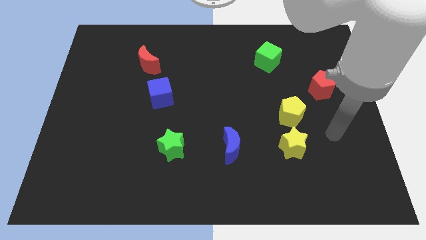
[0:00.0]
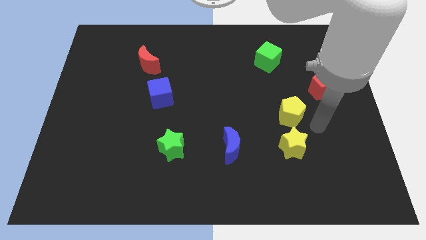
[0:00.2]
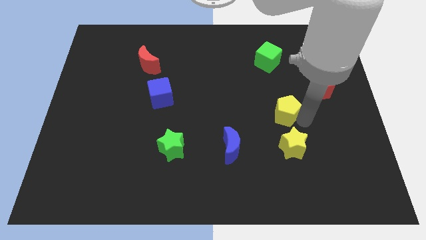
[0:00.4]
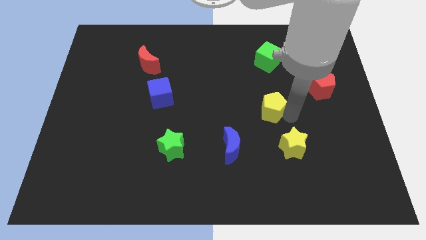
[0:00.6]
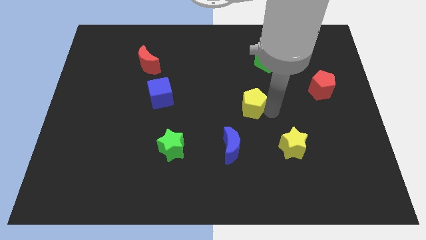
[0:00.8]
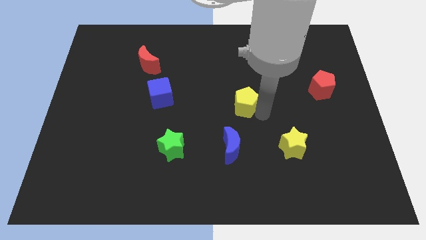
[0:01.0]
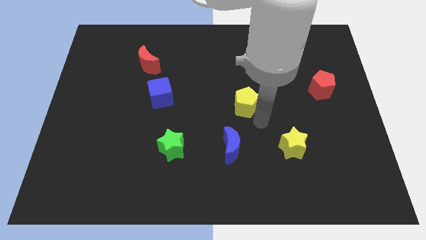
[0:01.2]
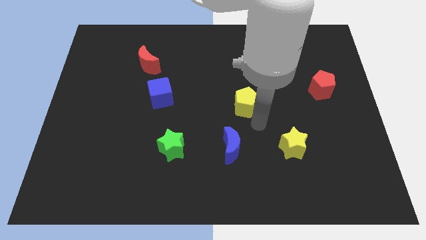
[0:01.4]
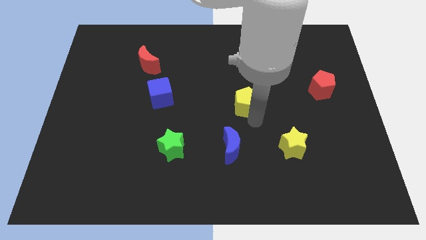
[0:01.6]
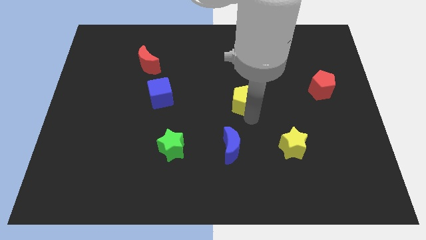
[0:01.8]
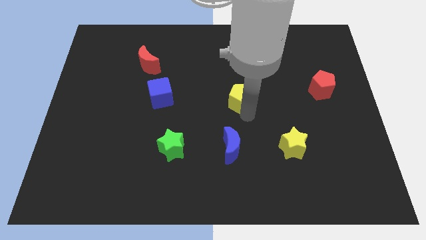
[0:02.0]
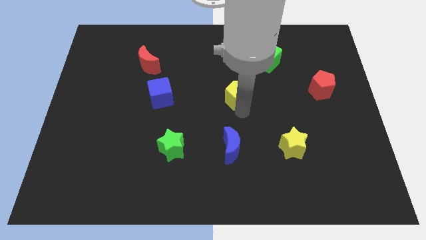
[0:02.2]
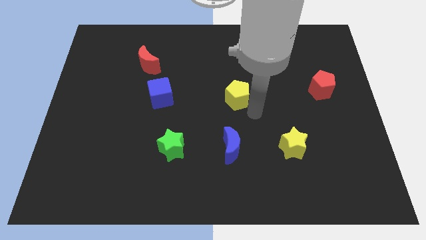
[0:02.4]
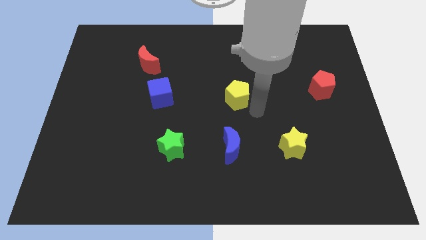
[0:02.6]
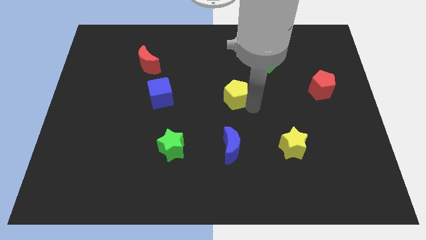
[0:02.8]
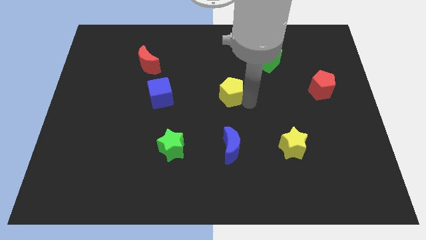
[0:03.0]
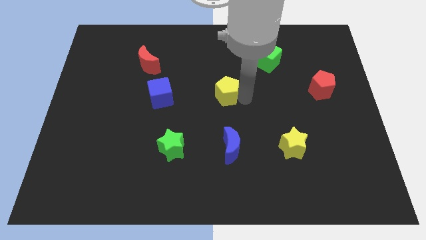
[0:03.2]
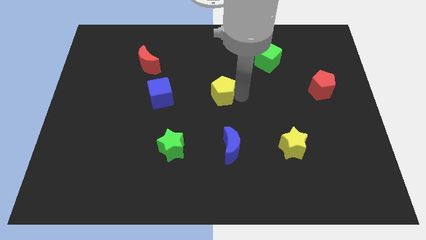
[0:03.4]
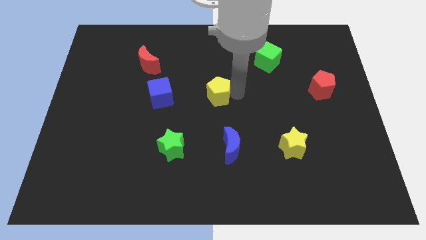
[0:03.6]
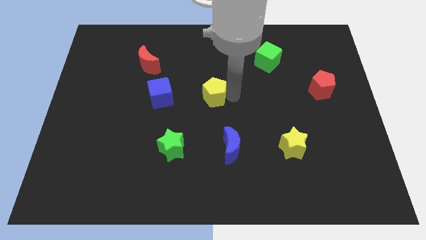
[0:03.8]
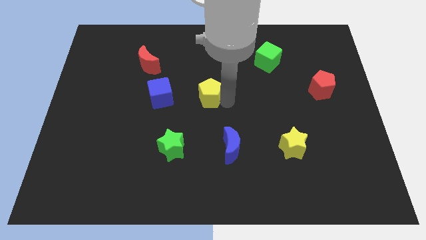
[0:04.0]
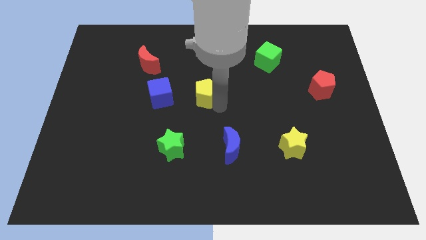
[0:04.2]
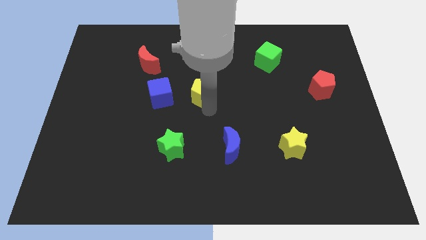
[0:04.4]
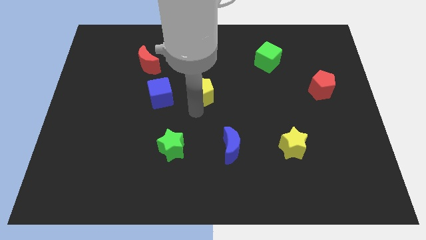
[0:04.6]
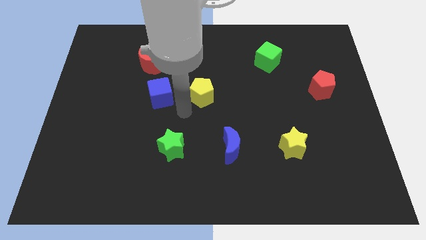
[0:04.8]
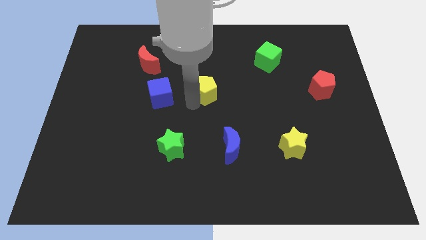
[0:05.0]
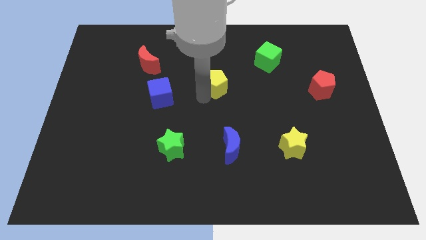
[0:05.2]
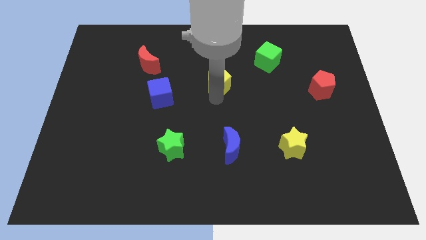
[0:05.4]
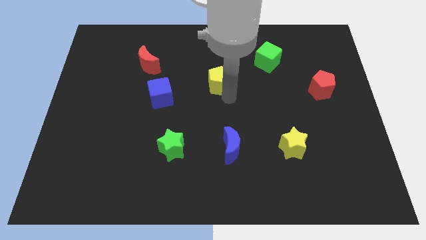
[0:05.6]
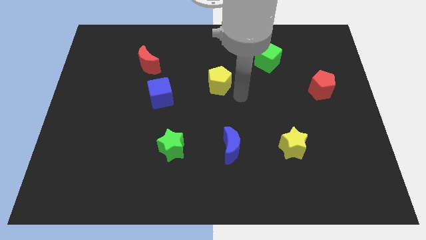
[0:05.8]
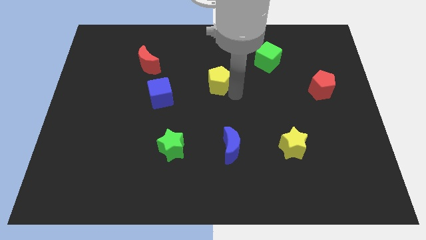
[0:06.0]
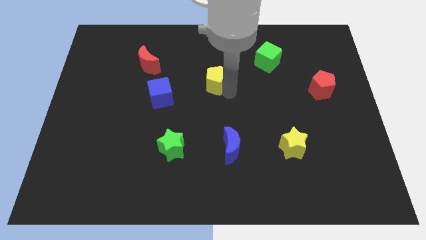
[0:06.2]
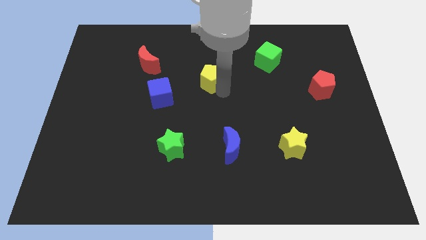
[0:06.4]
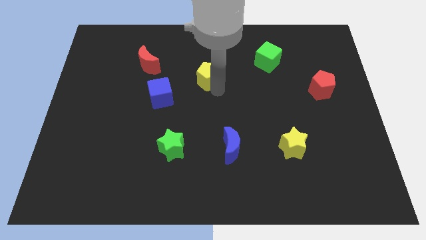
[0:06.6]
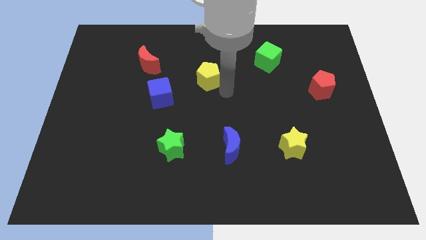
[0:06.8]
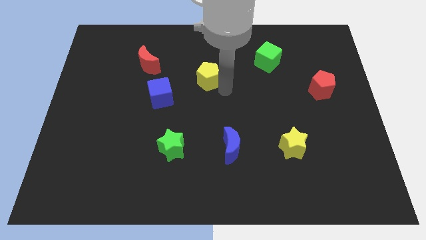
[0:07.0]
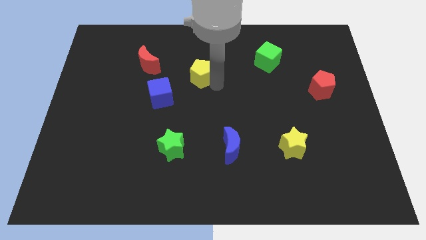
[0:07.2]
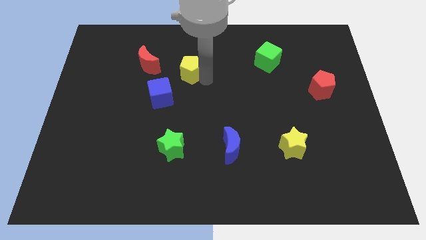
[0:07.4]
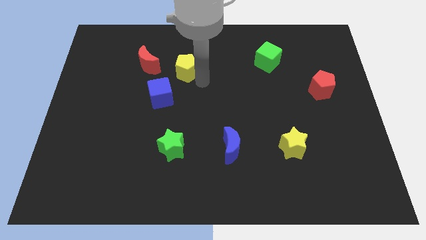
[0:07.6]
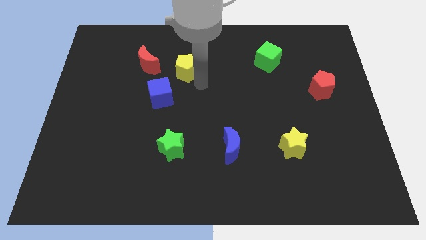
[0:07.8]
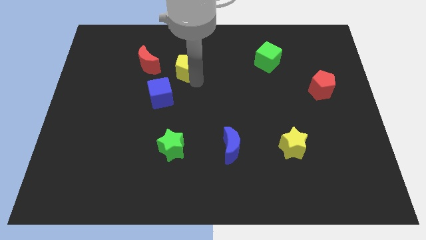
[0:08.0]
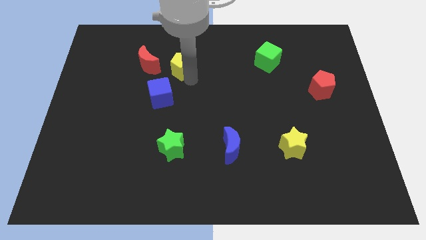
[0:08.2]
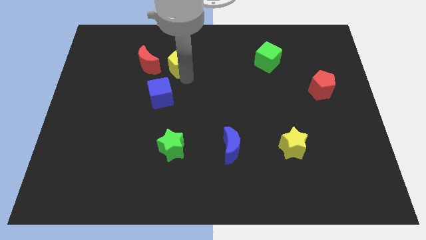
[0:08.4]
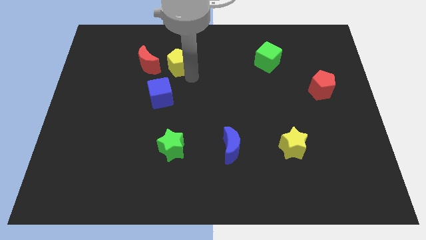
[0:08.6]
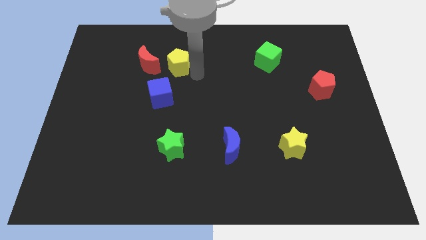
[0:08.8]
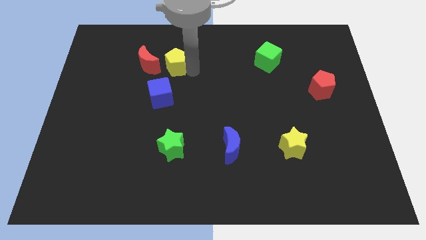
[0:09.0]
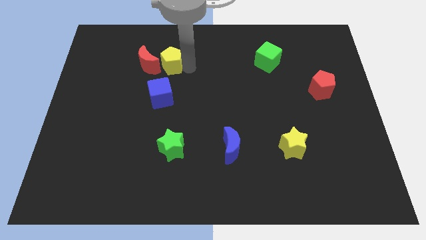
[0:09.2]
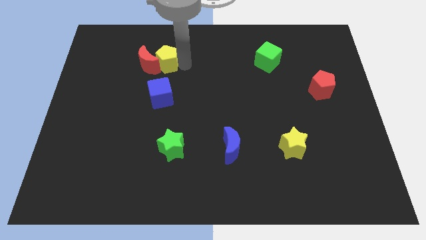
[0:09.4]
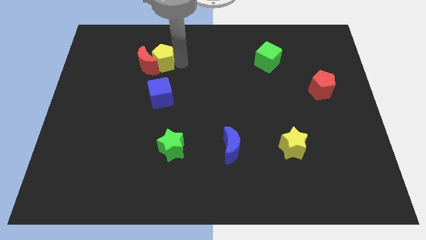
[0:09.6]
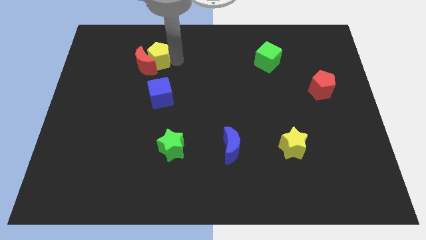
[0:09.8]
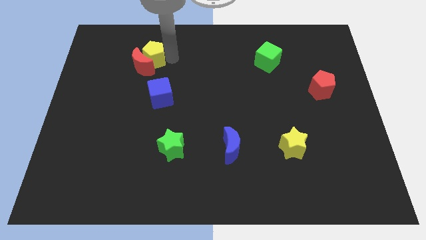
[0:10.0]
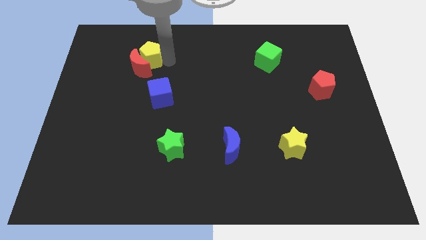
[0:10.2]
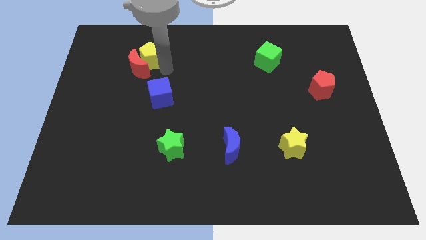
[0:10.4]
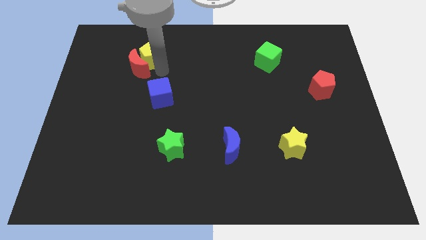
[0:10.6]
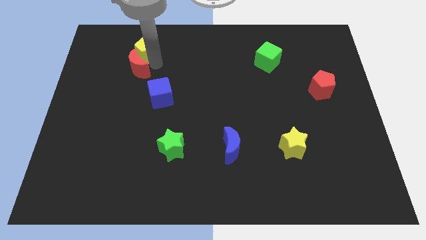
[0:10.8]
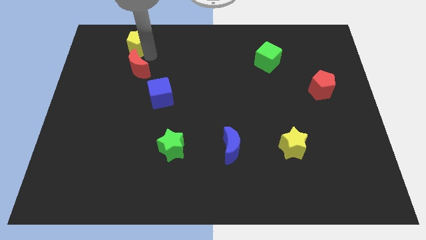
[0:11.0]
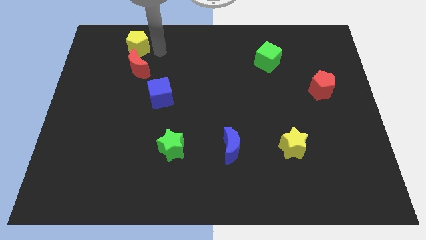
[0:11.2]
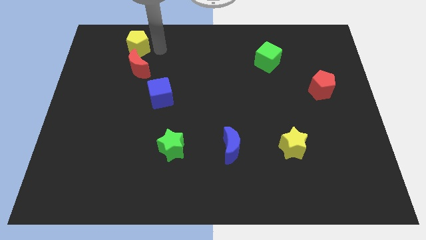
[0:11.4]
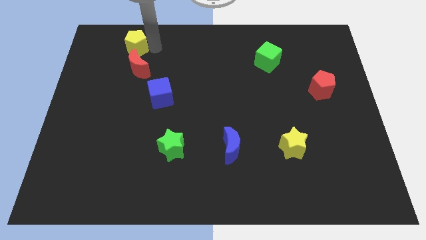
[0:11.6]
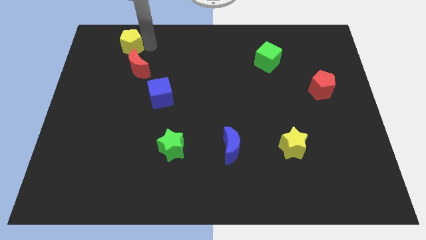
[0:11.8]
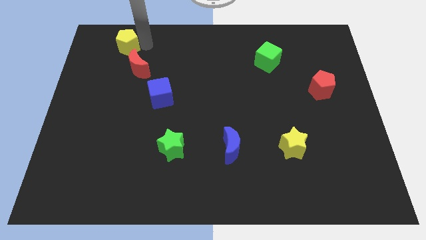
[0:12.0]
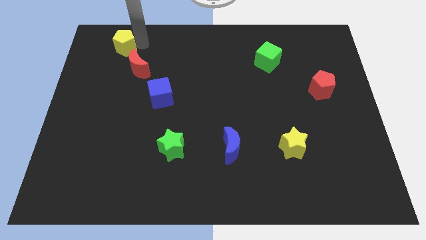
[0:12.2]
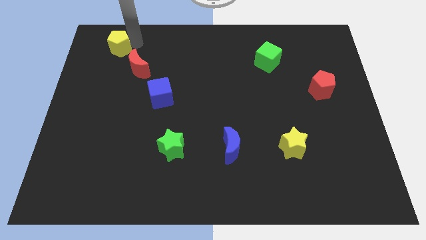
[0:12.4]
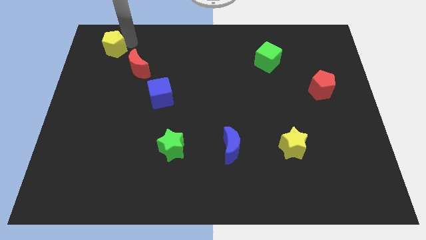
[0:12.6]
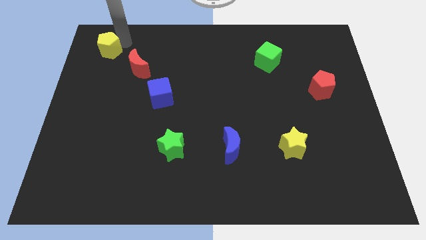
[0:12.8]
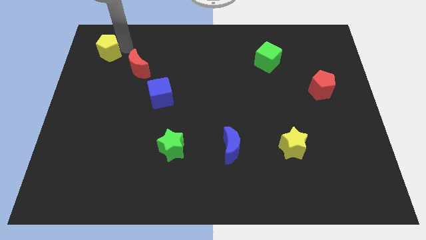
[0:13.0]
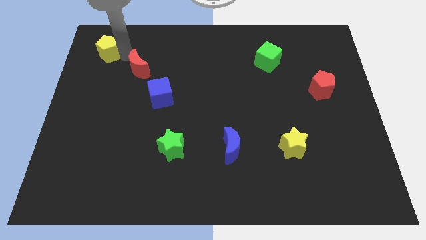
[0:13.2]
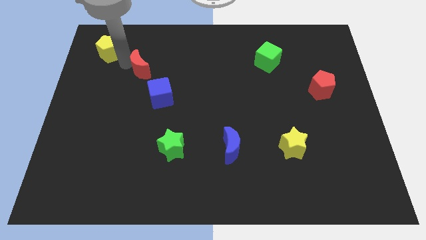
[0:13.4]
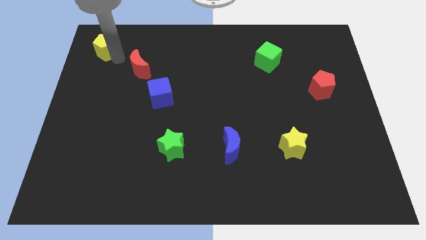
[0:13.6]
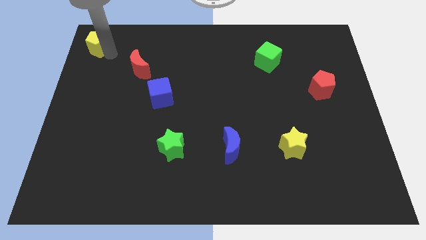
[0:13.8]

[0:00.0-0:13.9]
move the yellow pentagon to the top left corner

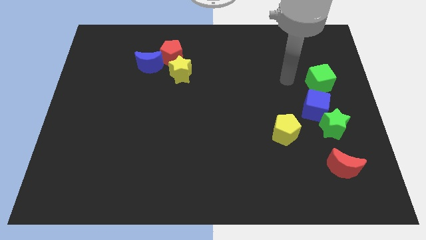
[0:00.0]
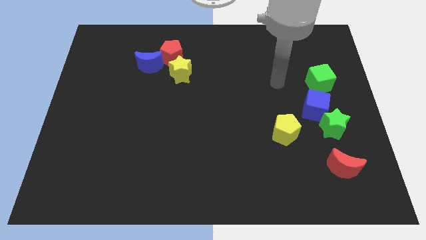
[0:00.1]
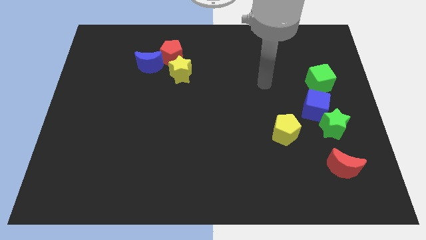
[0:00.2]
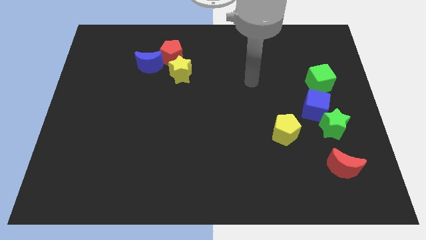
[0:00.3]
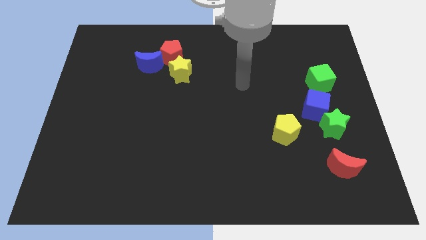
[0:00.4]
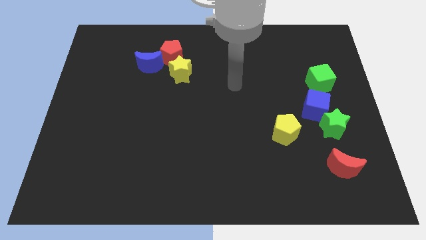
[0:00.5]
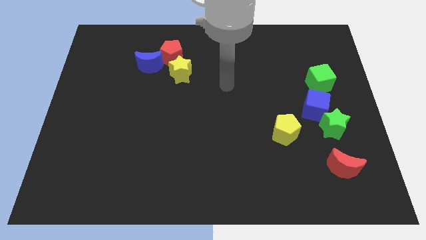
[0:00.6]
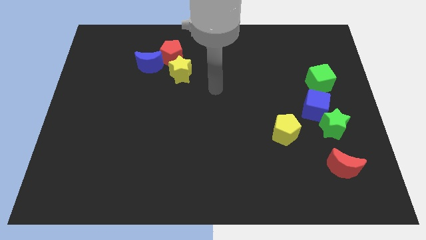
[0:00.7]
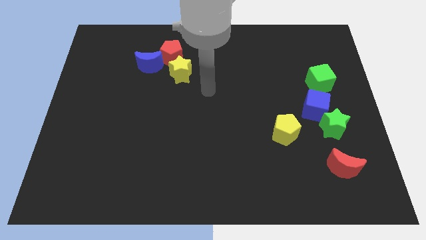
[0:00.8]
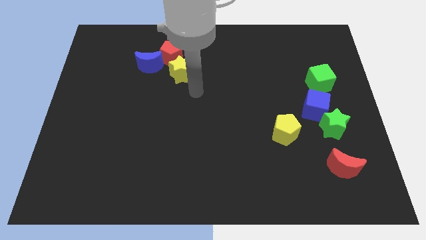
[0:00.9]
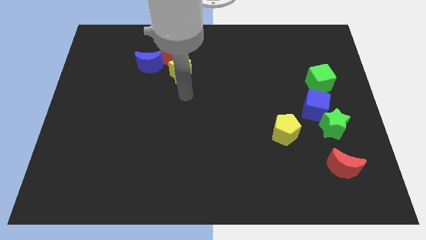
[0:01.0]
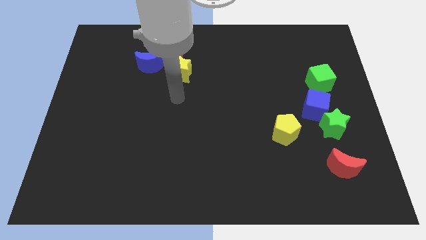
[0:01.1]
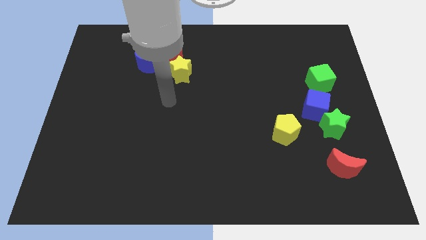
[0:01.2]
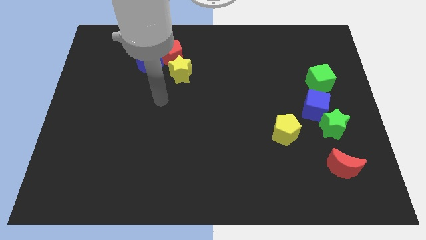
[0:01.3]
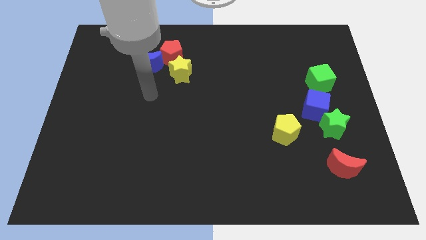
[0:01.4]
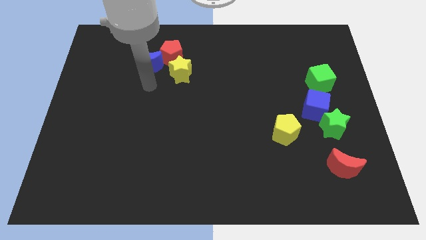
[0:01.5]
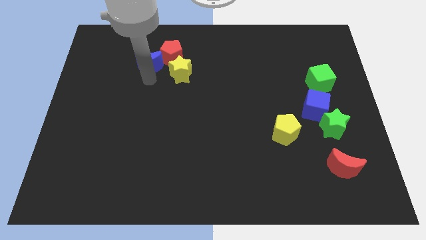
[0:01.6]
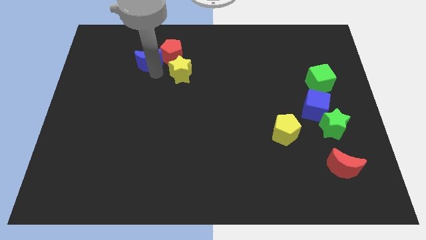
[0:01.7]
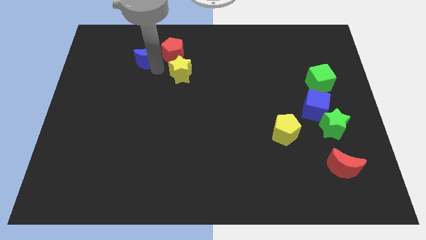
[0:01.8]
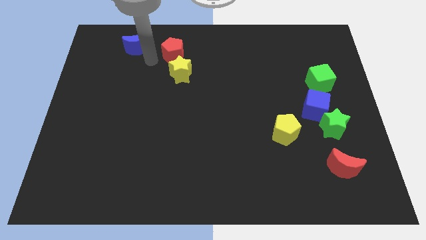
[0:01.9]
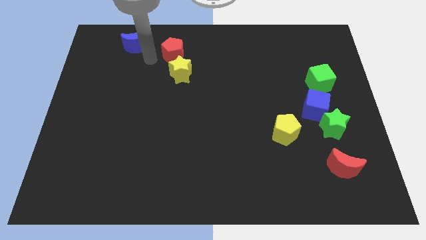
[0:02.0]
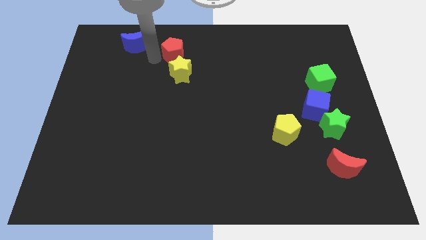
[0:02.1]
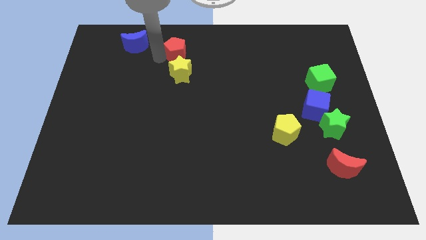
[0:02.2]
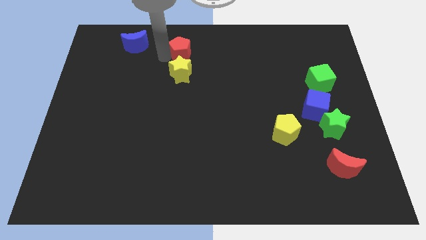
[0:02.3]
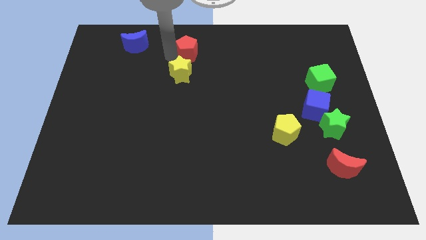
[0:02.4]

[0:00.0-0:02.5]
put the red pentagon to the towards your base
